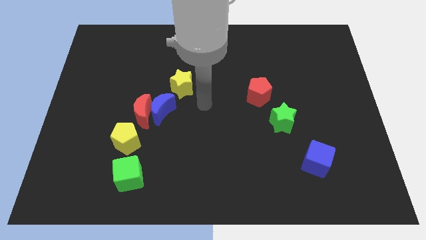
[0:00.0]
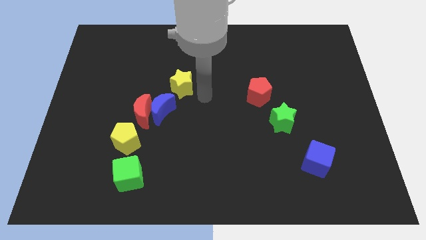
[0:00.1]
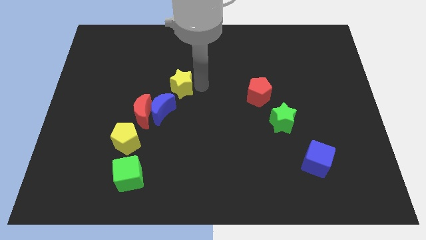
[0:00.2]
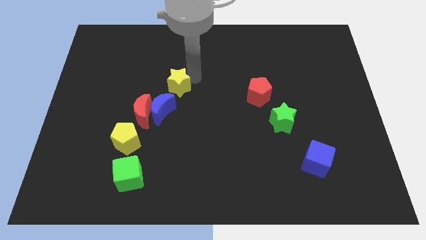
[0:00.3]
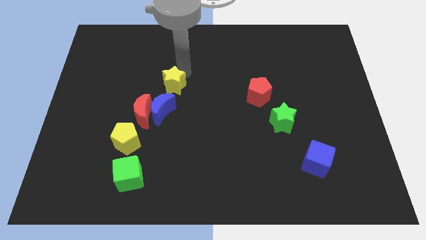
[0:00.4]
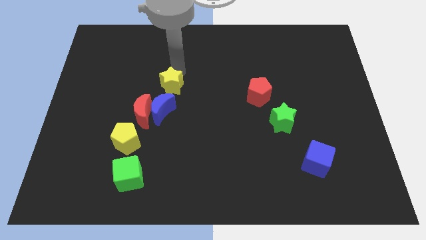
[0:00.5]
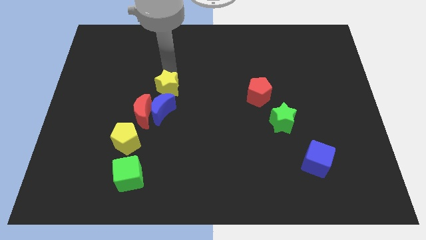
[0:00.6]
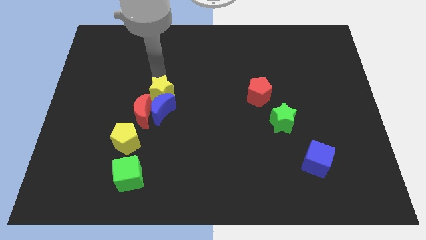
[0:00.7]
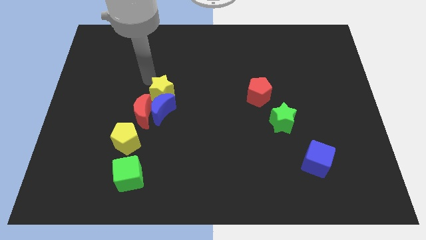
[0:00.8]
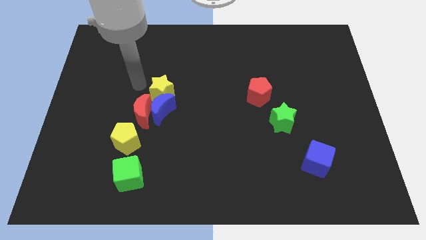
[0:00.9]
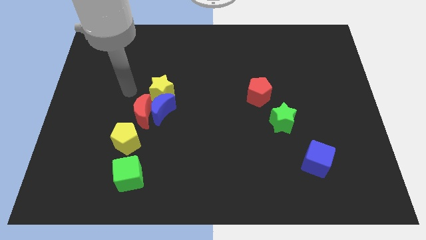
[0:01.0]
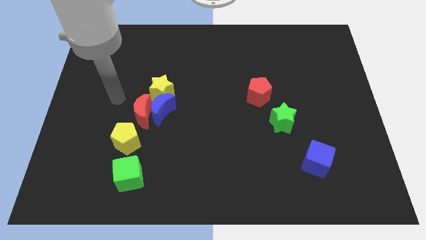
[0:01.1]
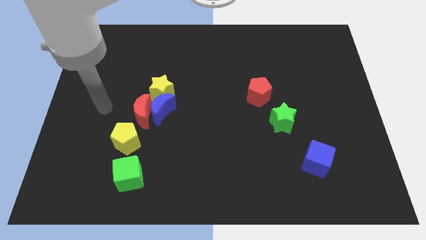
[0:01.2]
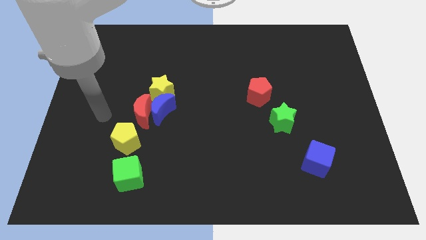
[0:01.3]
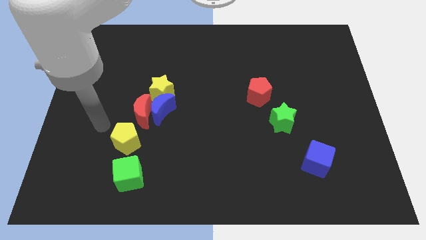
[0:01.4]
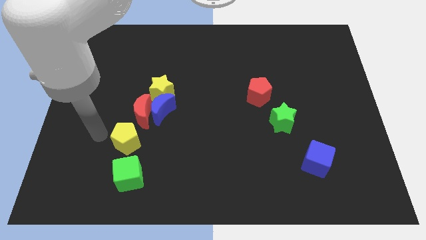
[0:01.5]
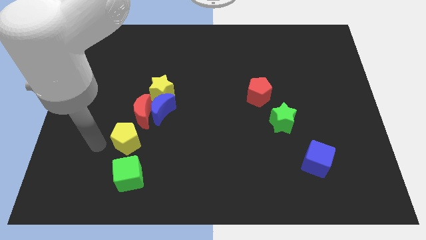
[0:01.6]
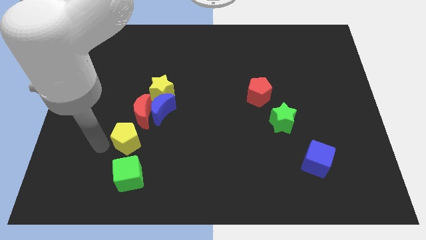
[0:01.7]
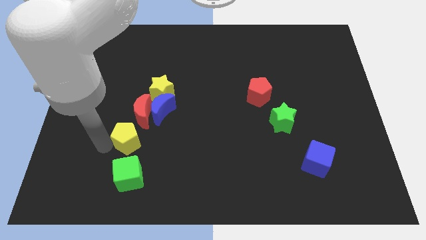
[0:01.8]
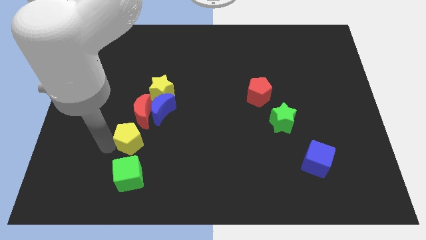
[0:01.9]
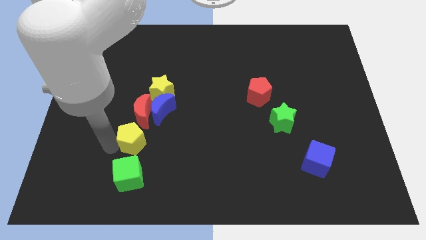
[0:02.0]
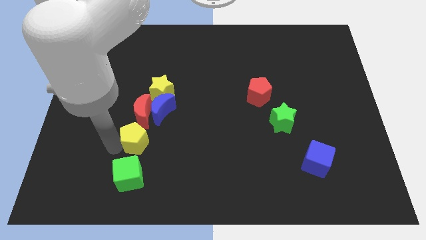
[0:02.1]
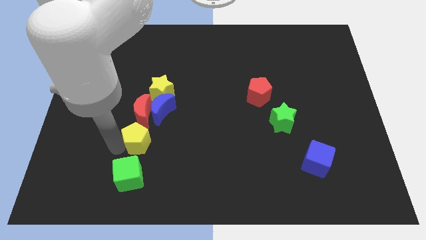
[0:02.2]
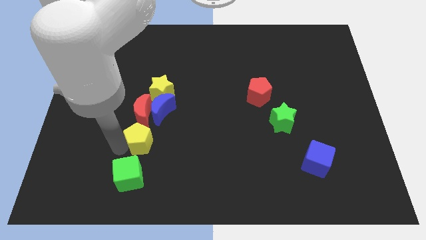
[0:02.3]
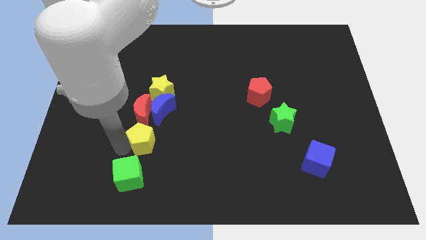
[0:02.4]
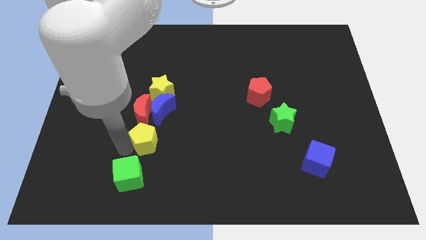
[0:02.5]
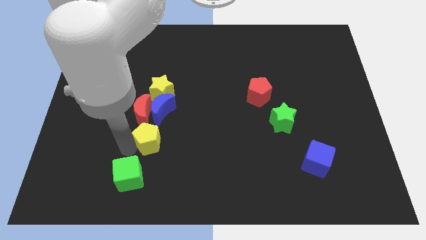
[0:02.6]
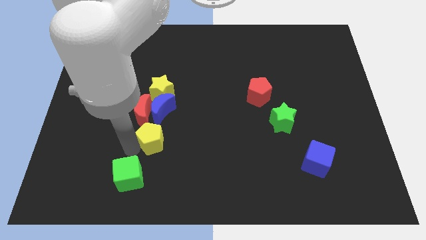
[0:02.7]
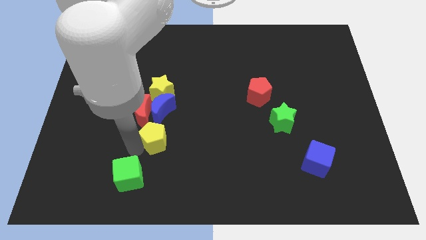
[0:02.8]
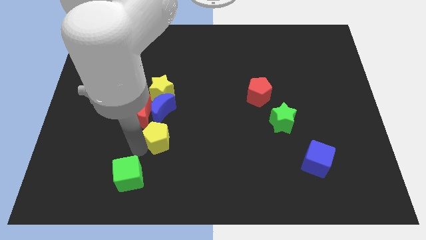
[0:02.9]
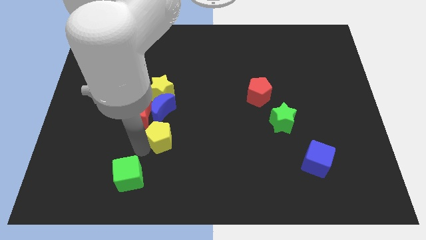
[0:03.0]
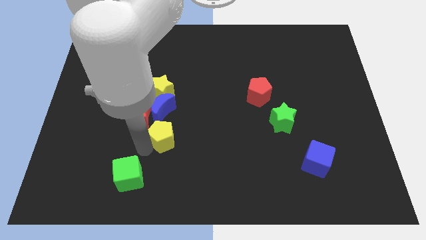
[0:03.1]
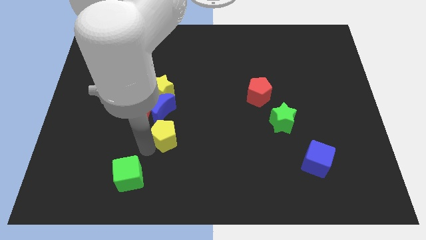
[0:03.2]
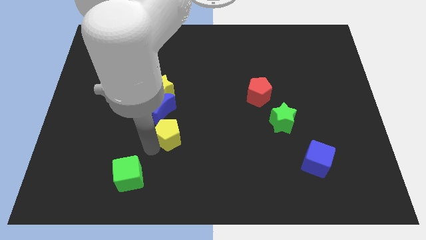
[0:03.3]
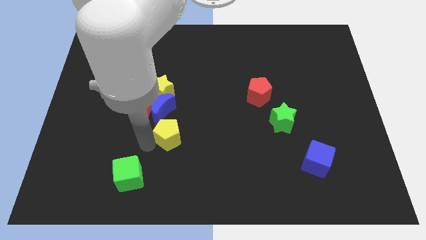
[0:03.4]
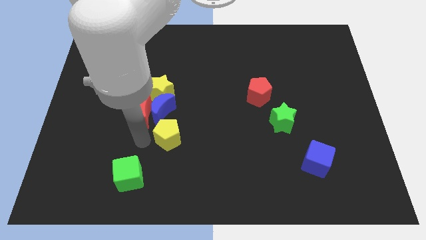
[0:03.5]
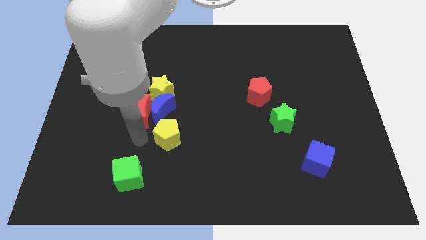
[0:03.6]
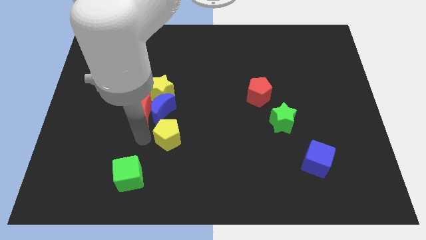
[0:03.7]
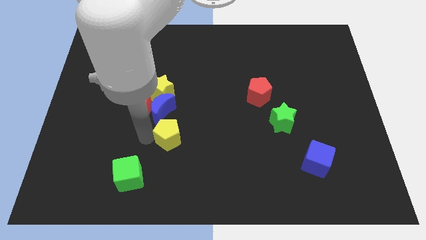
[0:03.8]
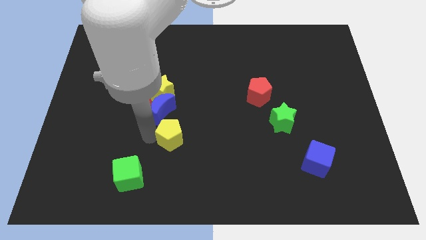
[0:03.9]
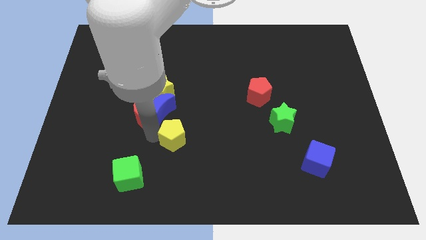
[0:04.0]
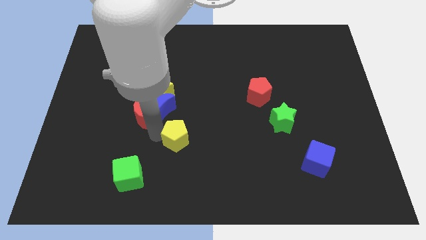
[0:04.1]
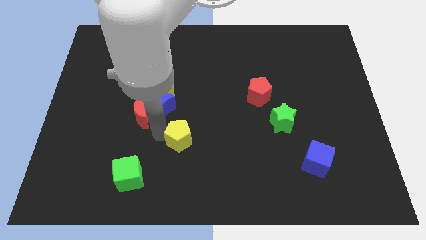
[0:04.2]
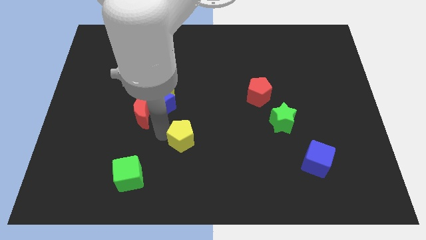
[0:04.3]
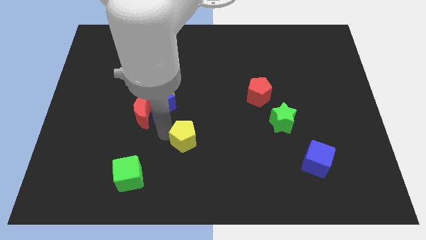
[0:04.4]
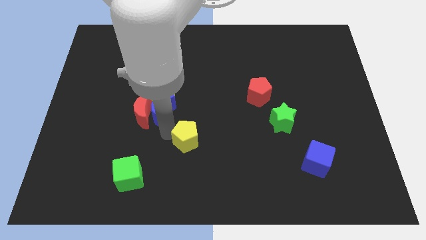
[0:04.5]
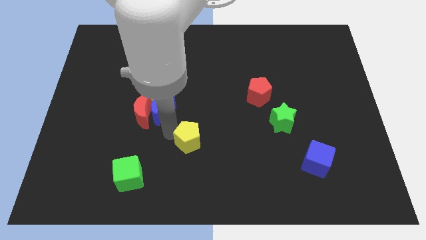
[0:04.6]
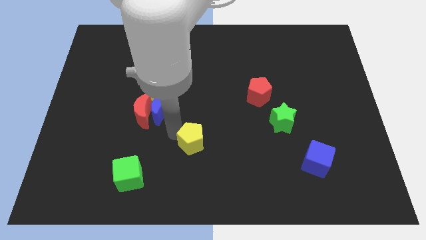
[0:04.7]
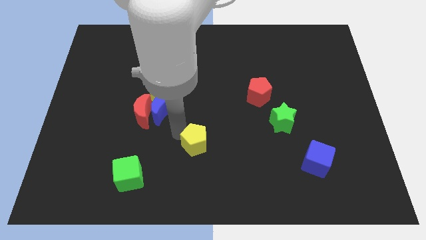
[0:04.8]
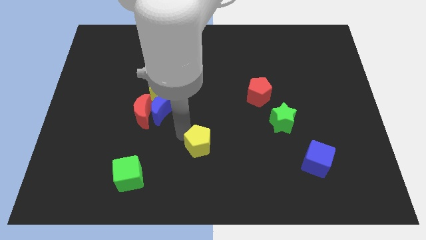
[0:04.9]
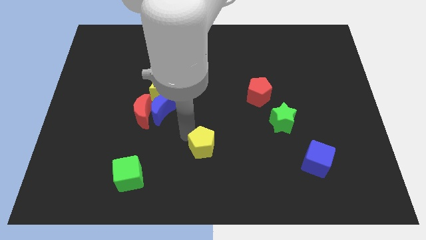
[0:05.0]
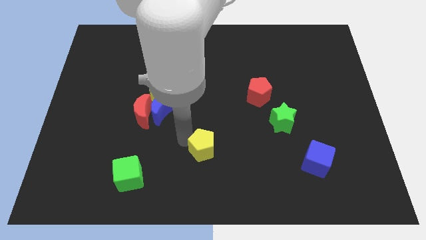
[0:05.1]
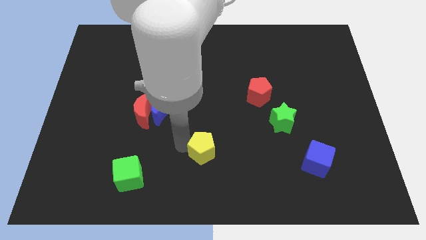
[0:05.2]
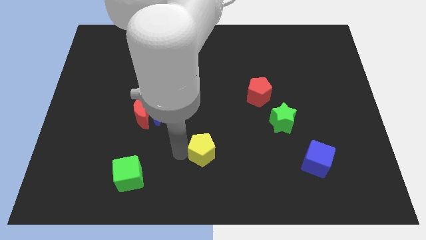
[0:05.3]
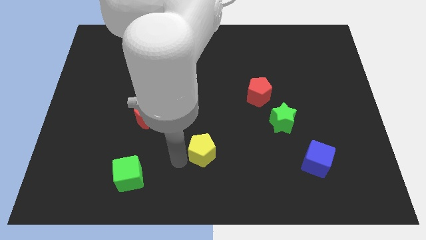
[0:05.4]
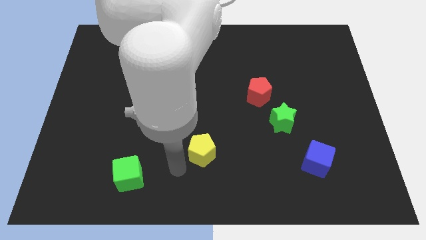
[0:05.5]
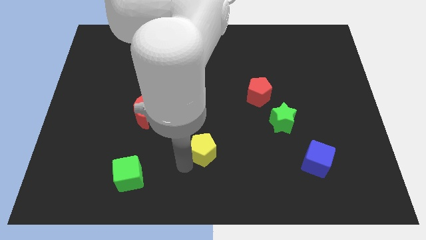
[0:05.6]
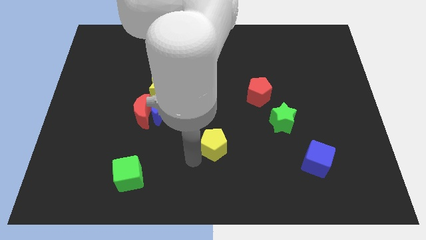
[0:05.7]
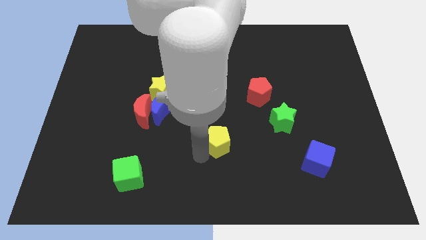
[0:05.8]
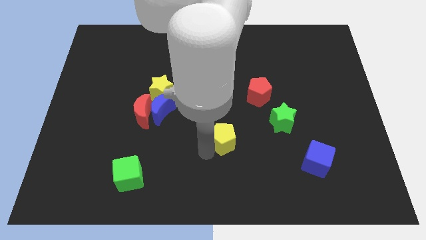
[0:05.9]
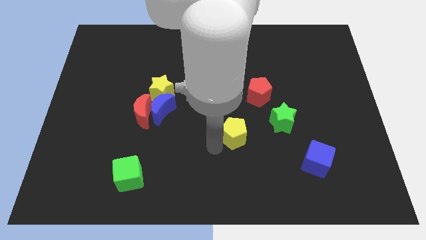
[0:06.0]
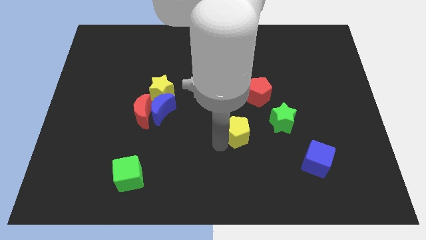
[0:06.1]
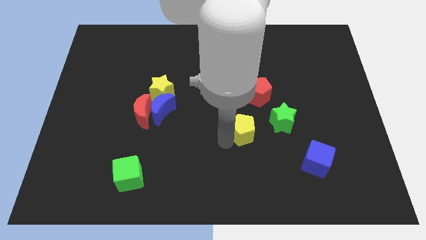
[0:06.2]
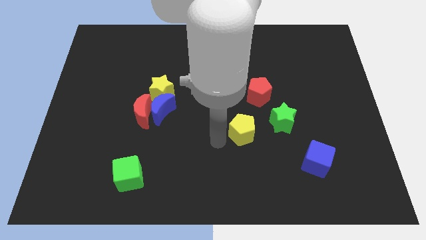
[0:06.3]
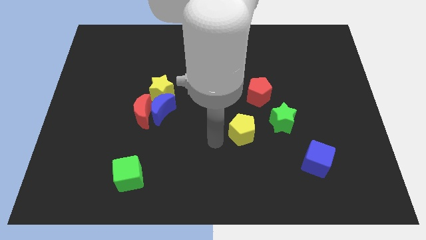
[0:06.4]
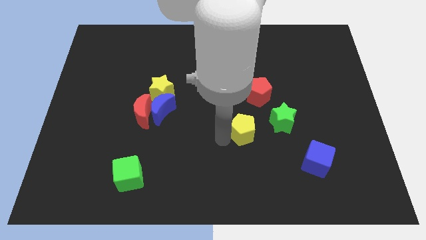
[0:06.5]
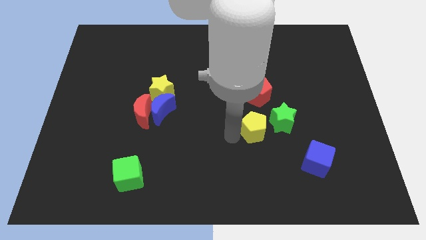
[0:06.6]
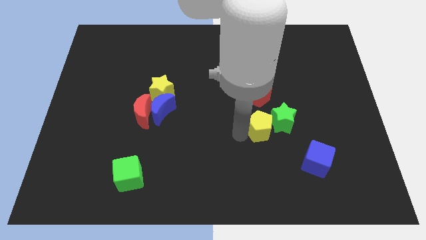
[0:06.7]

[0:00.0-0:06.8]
slide the yellow pentagon towards the green star

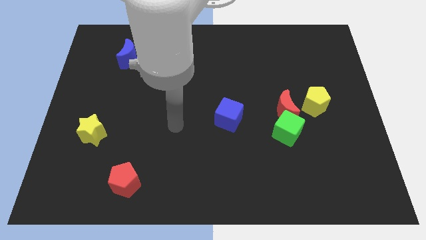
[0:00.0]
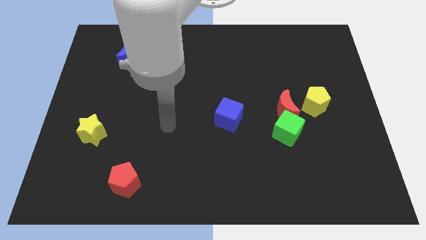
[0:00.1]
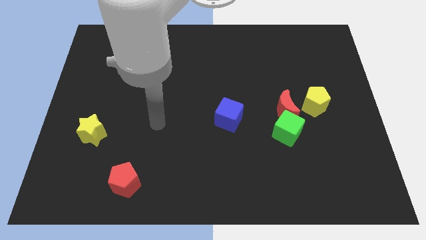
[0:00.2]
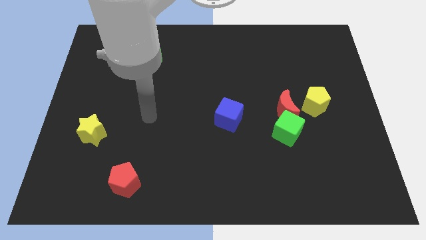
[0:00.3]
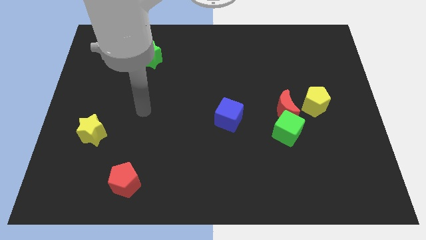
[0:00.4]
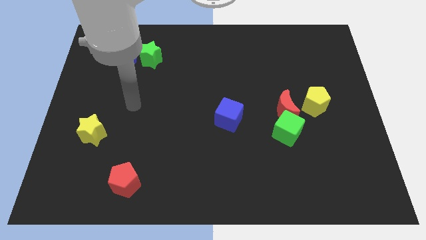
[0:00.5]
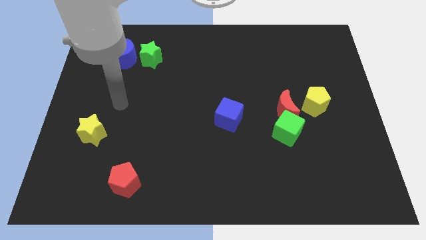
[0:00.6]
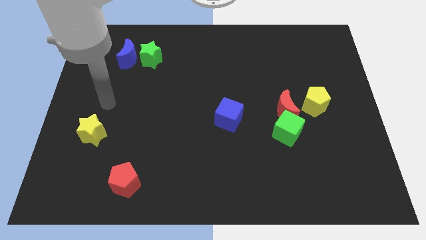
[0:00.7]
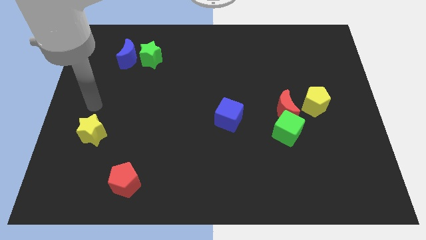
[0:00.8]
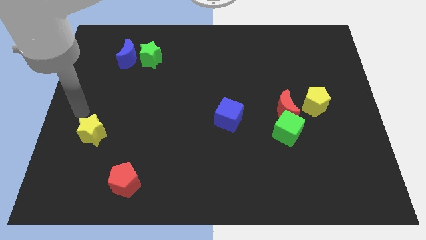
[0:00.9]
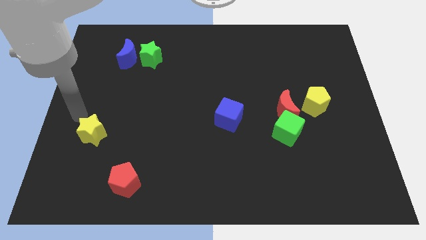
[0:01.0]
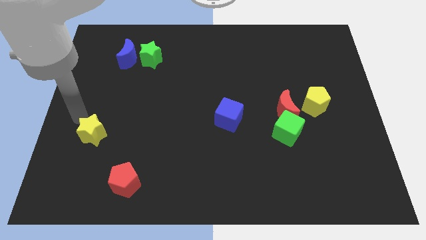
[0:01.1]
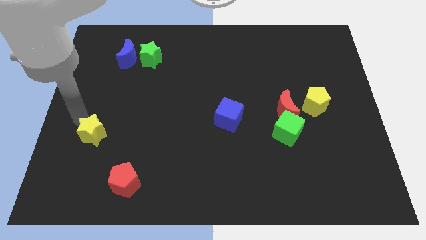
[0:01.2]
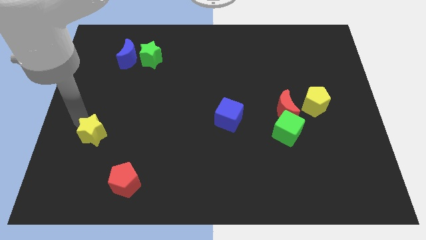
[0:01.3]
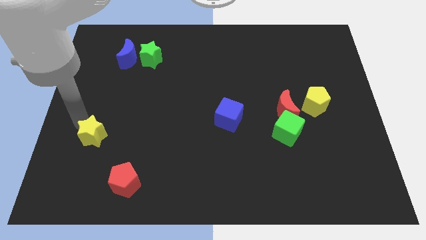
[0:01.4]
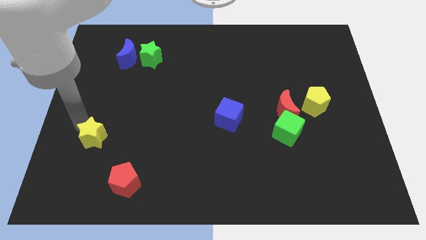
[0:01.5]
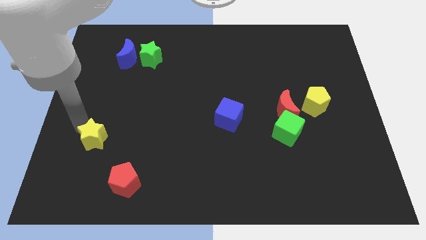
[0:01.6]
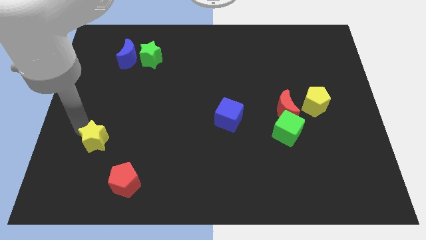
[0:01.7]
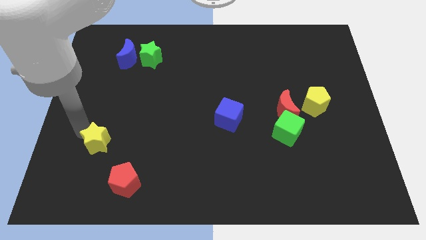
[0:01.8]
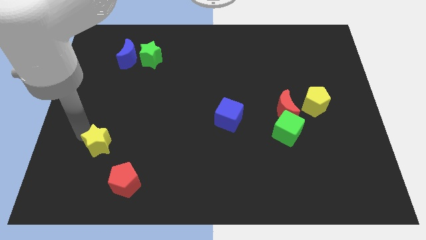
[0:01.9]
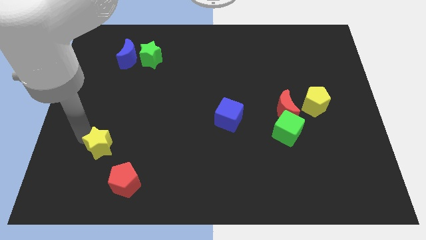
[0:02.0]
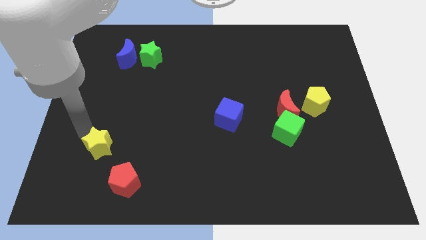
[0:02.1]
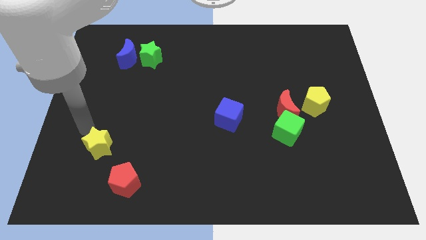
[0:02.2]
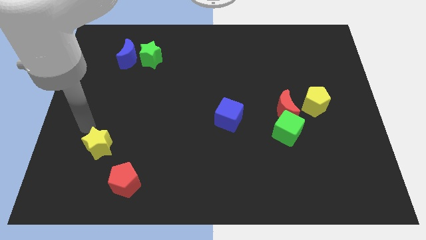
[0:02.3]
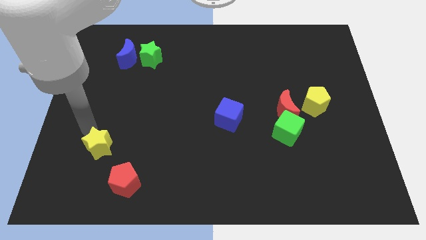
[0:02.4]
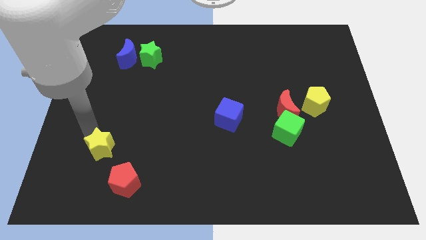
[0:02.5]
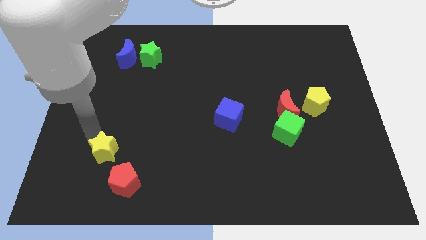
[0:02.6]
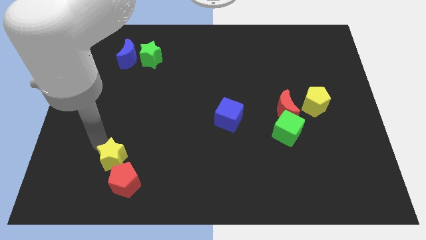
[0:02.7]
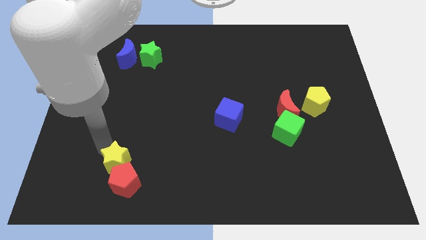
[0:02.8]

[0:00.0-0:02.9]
slide the yellow star to the red pentagon
